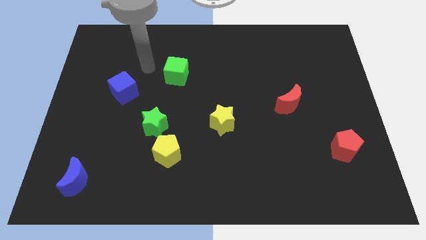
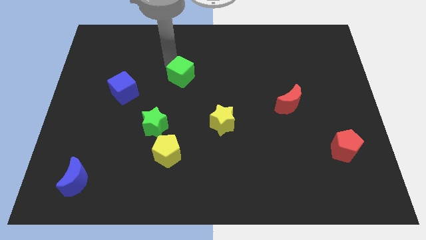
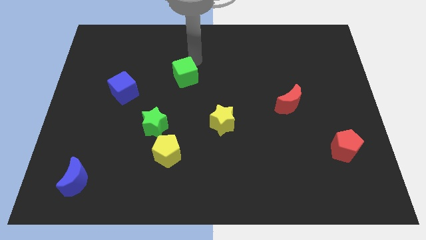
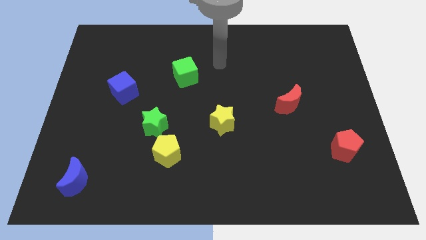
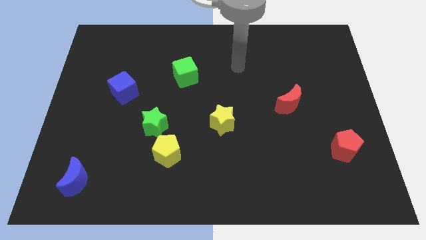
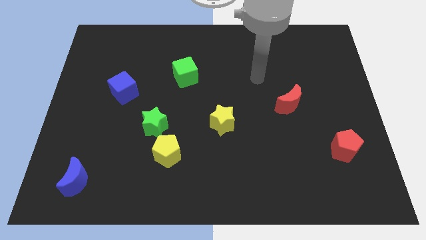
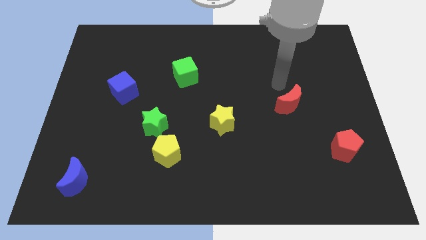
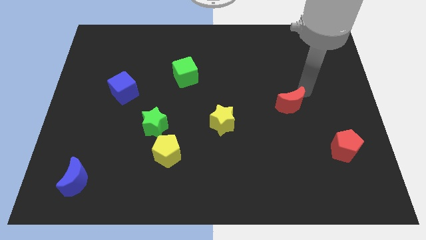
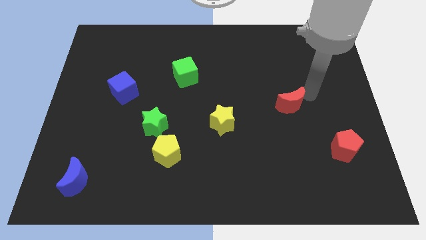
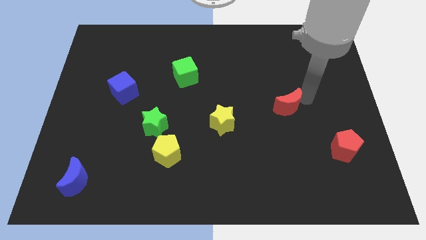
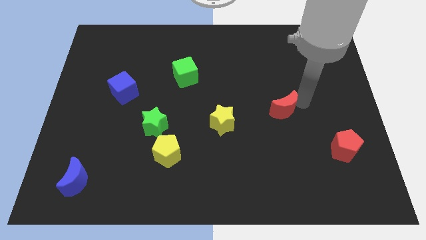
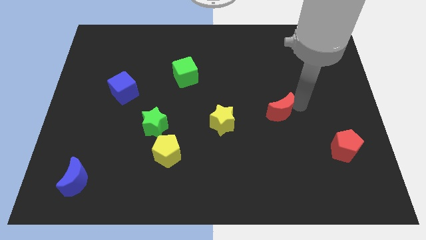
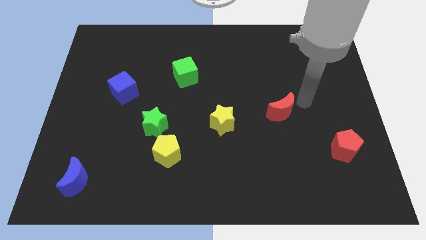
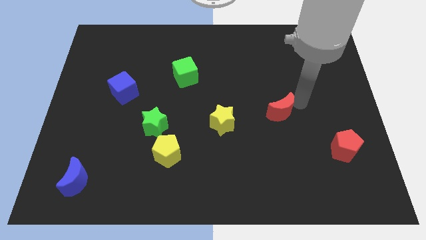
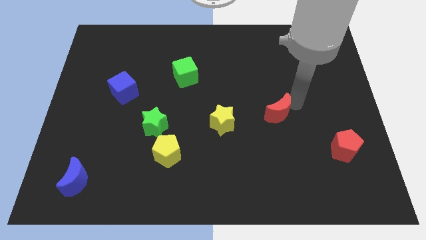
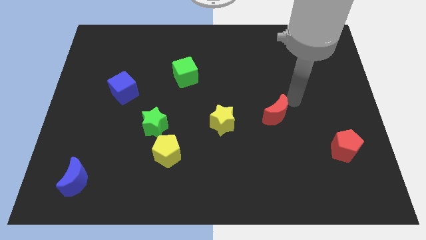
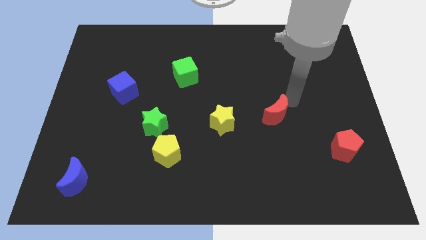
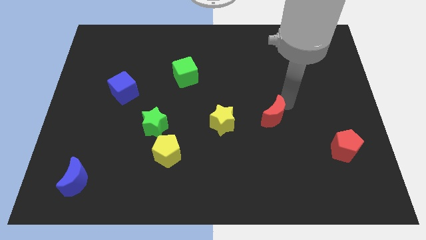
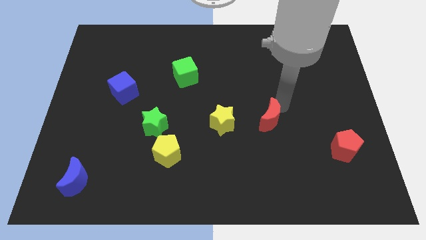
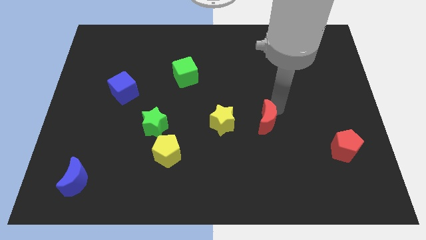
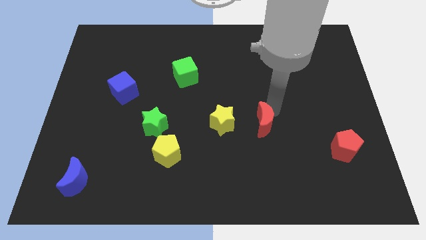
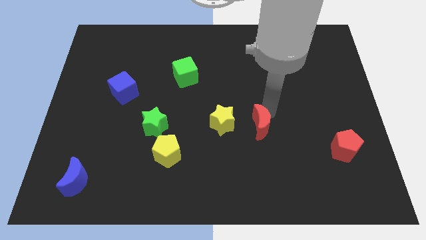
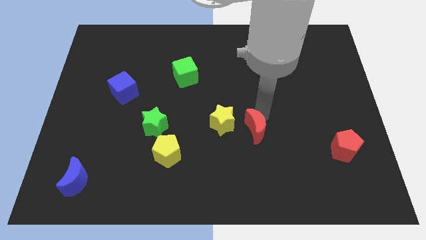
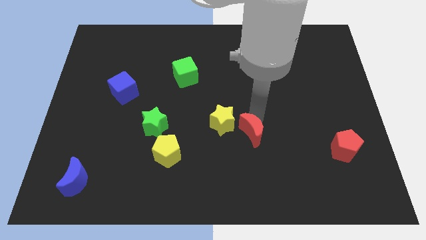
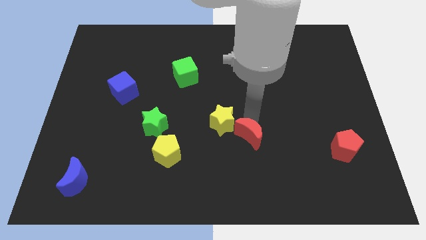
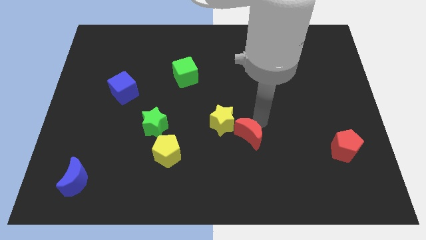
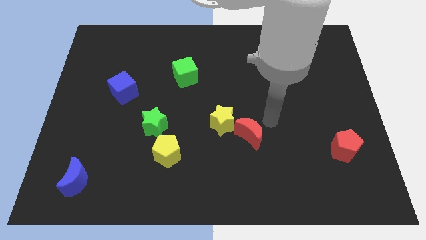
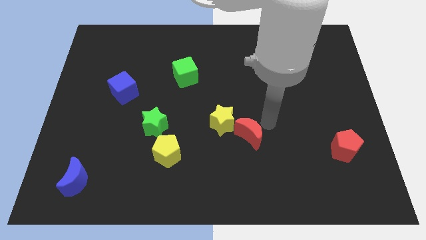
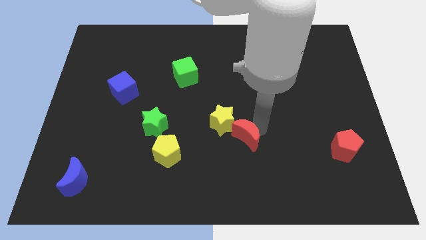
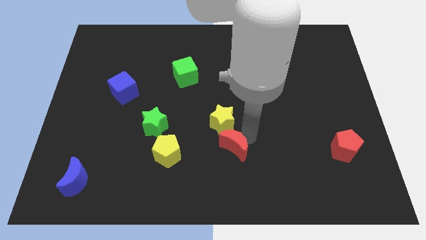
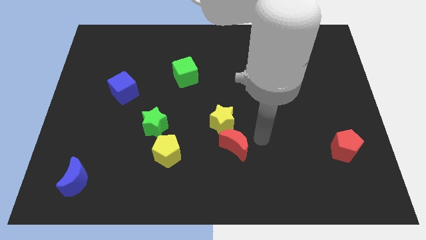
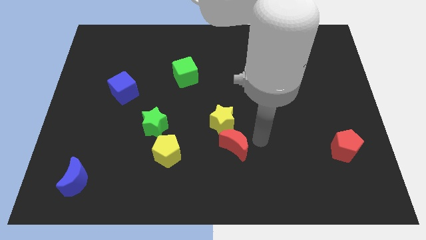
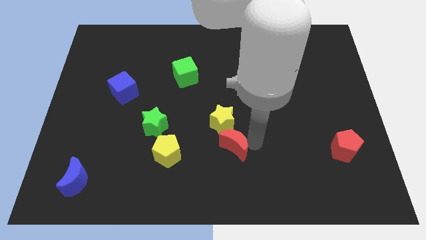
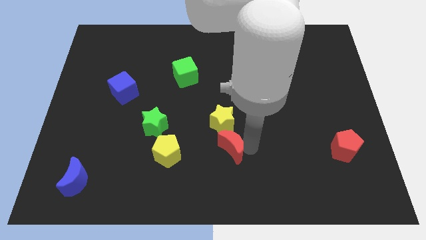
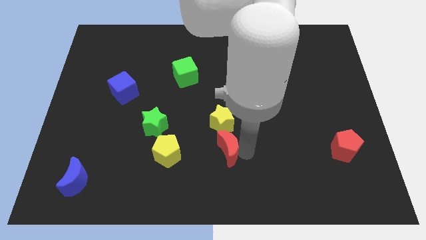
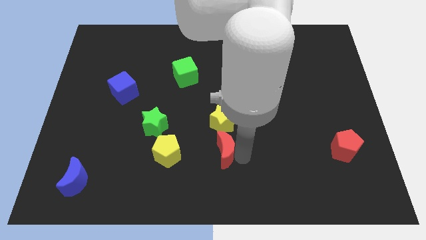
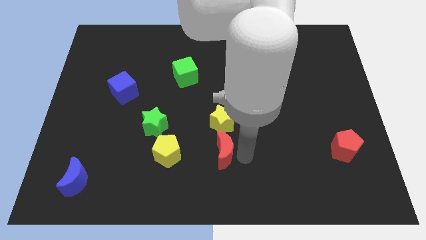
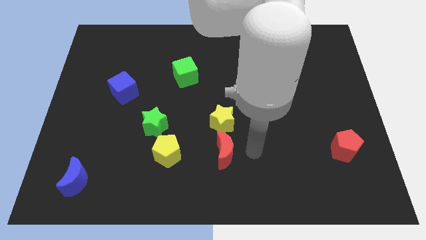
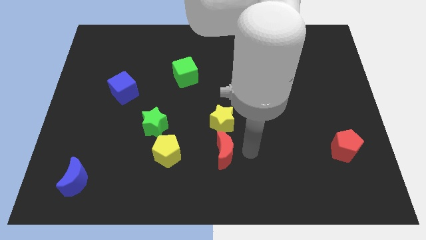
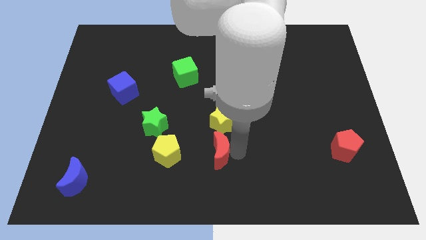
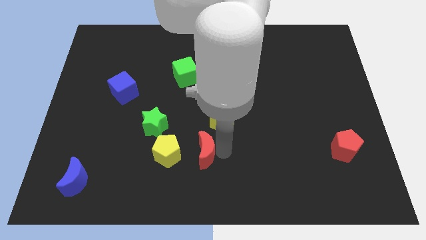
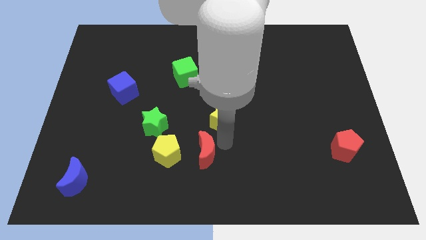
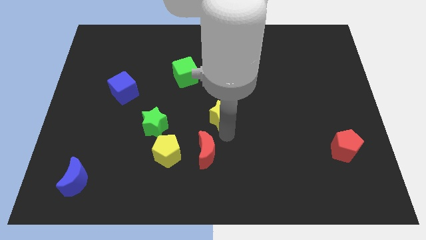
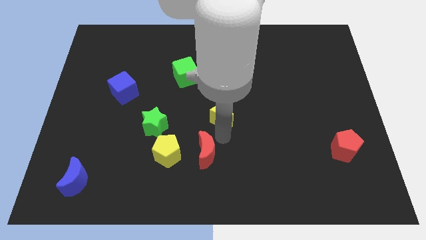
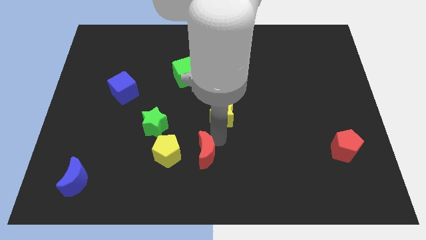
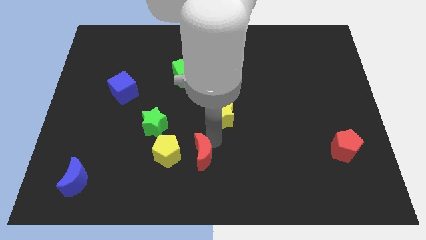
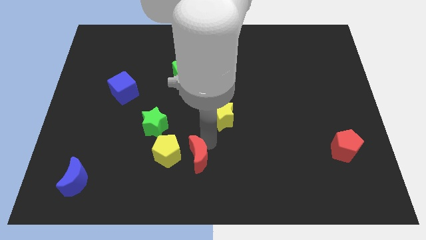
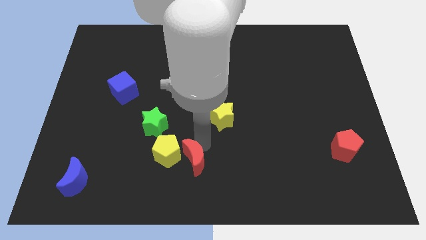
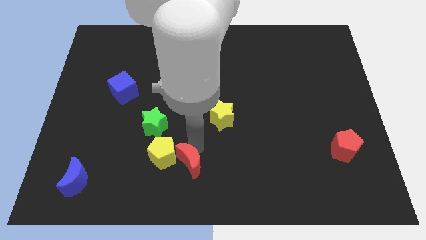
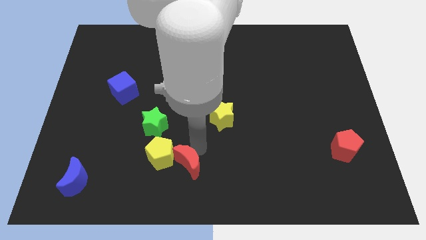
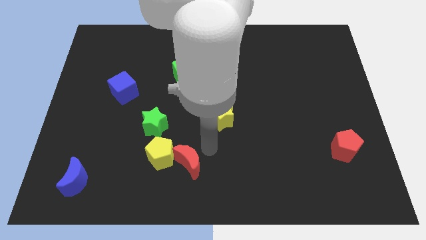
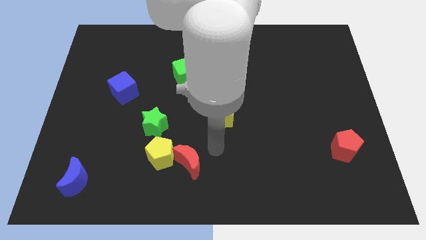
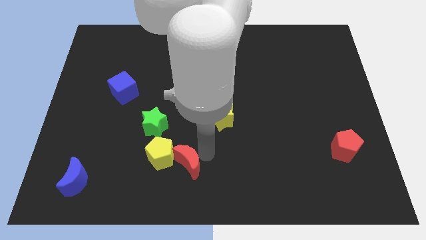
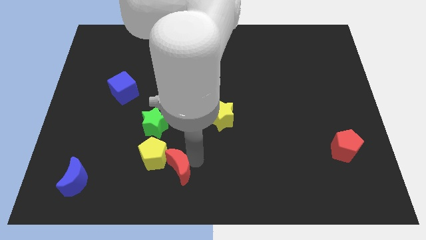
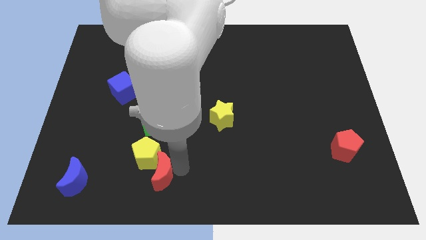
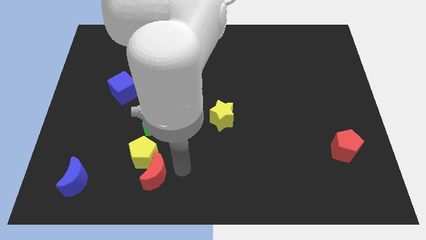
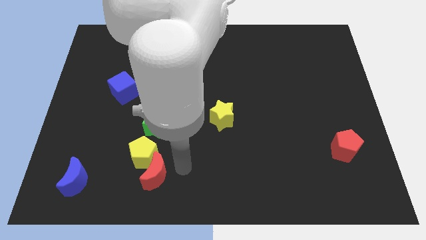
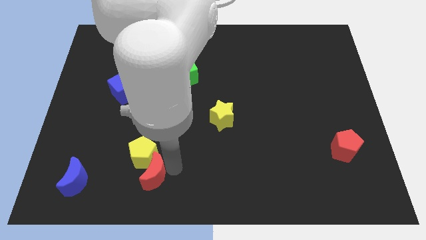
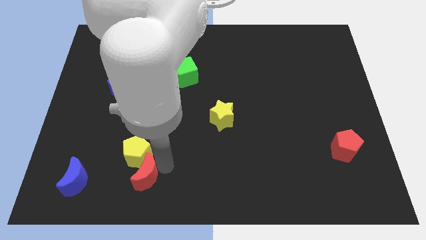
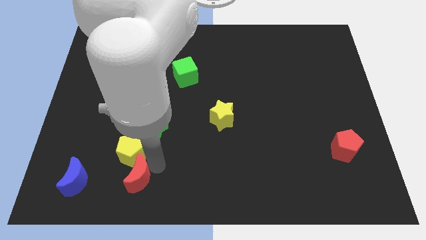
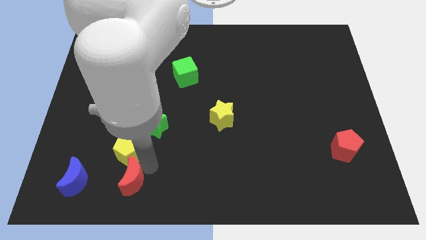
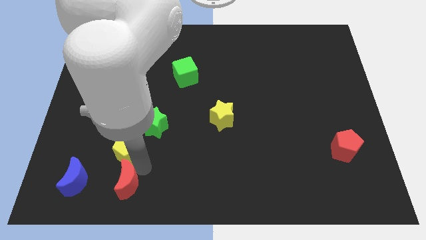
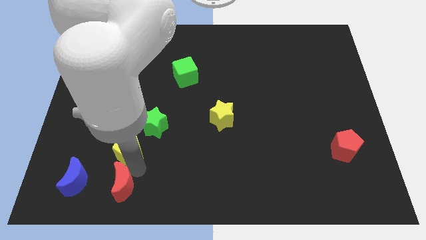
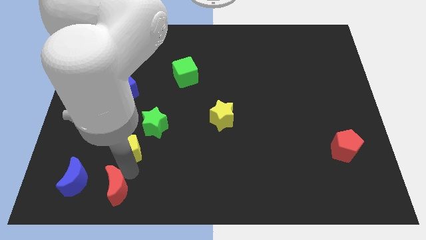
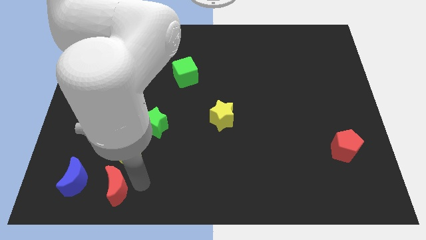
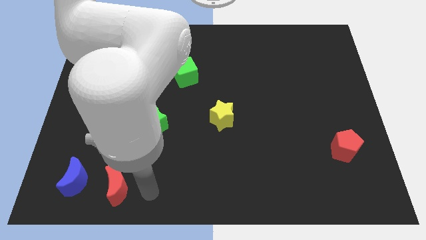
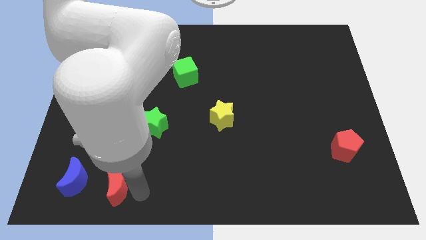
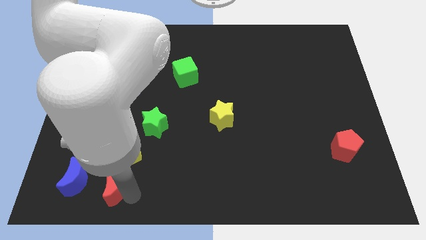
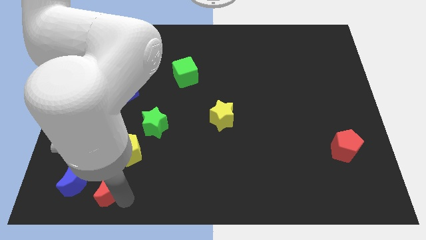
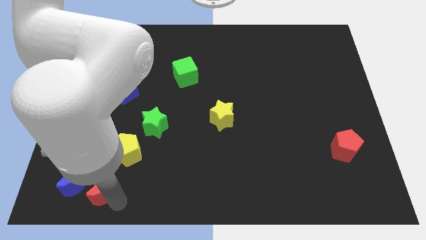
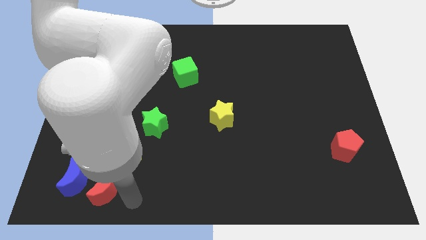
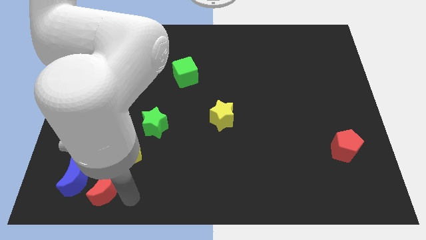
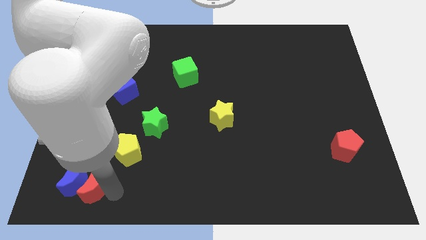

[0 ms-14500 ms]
move the red moon close to the blue moon

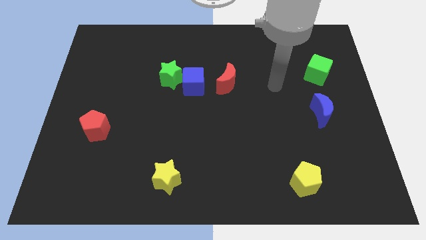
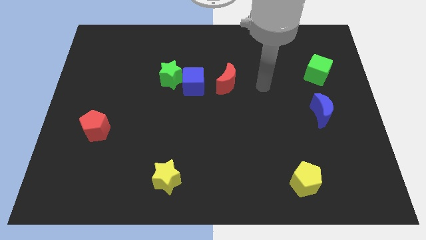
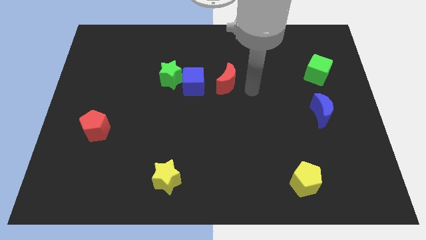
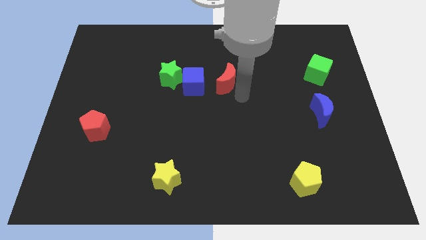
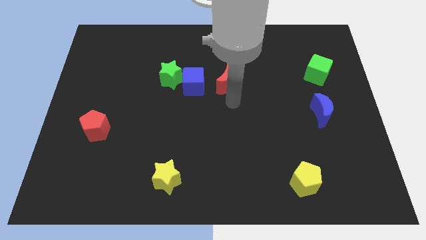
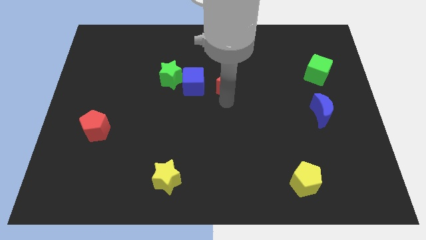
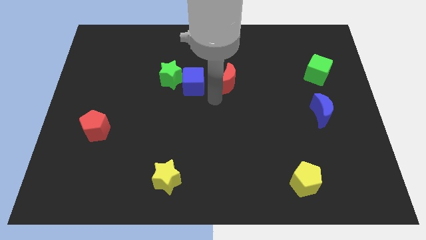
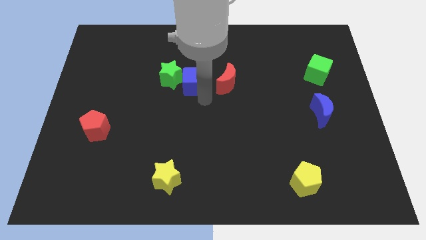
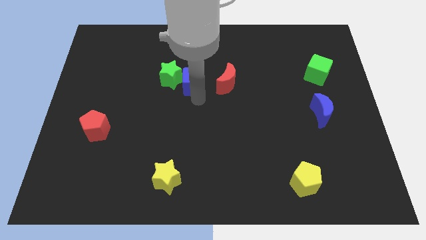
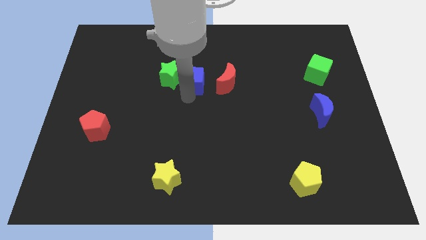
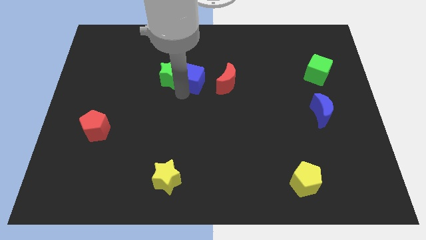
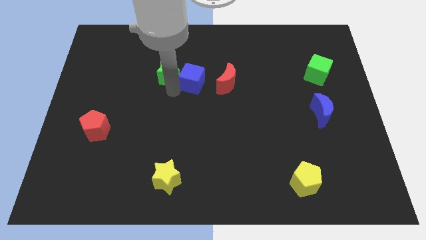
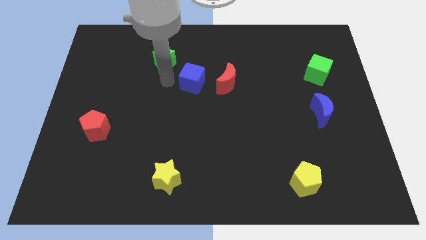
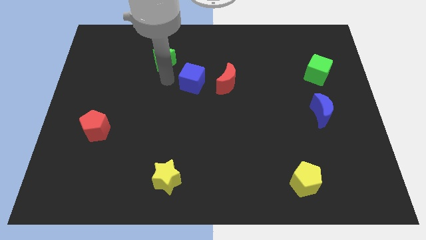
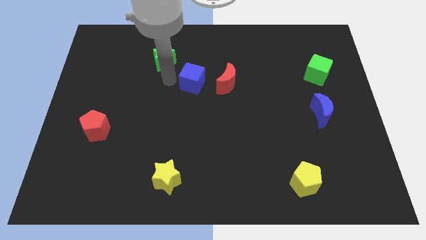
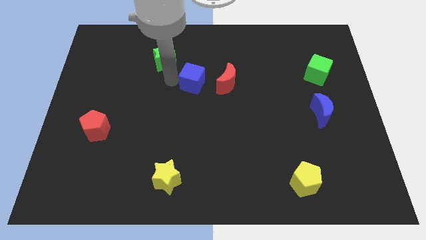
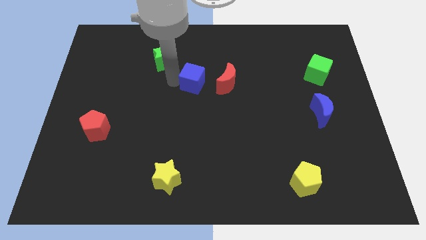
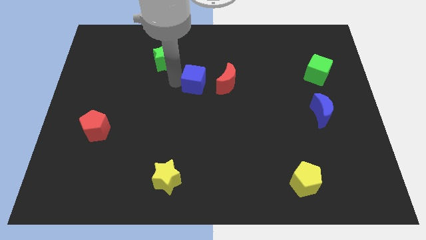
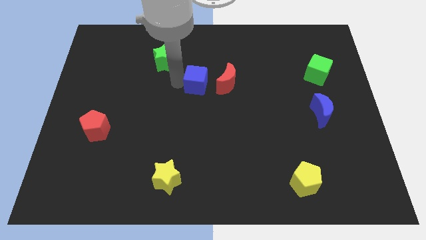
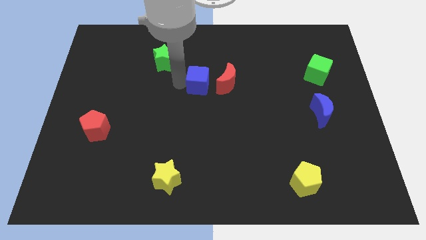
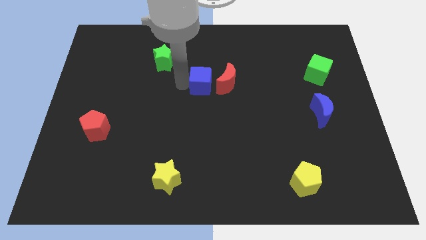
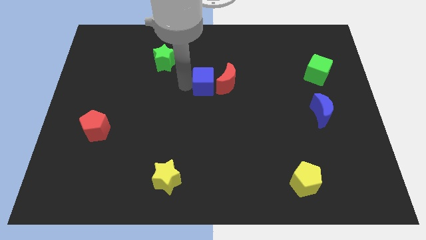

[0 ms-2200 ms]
put the blue cube close to the red moon
